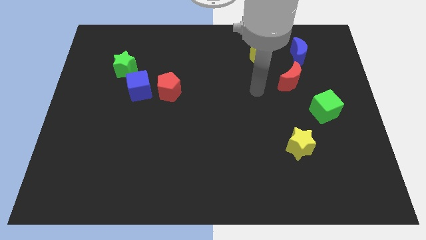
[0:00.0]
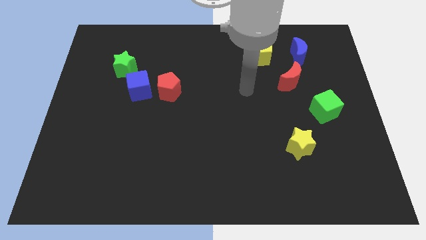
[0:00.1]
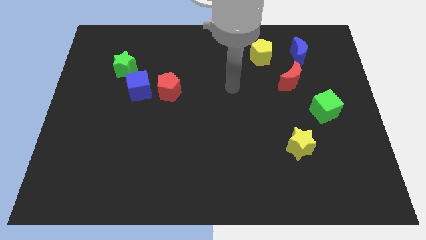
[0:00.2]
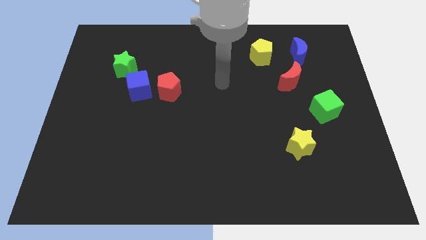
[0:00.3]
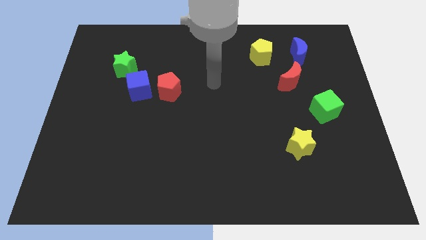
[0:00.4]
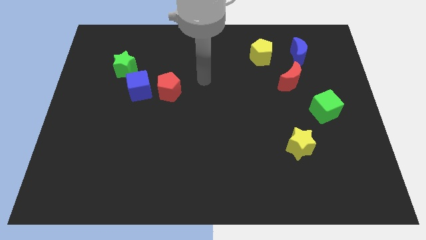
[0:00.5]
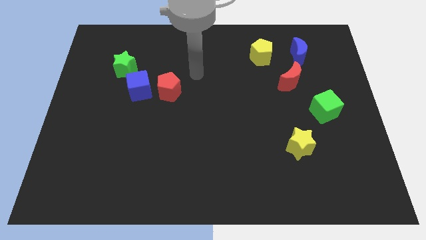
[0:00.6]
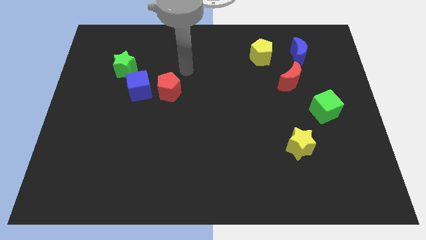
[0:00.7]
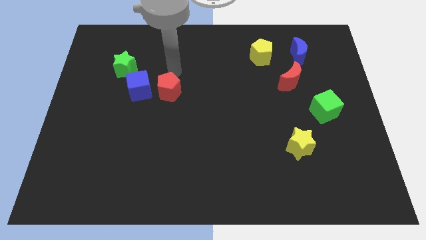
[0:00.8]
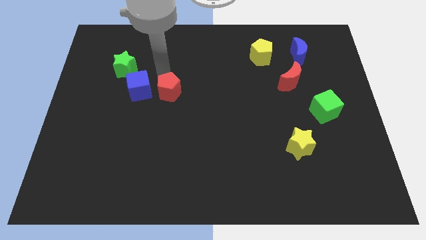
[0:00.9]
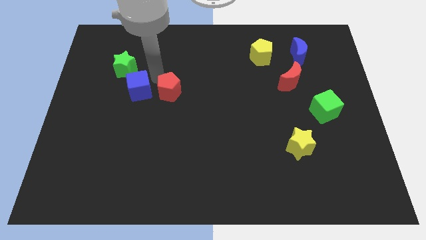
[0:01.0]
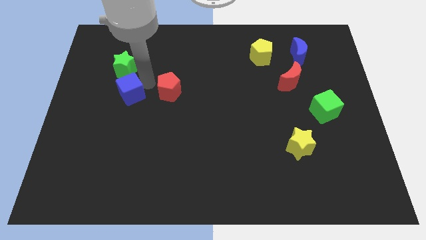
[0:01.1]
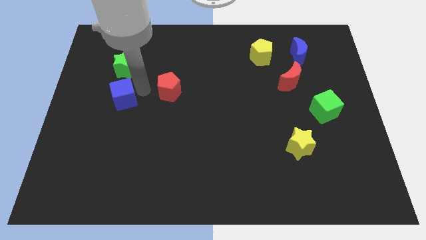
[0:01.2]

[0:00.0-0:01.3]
pull the red pentagon apart from the blue cube

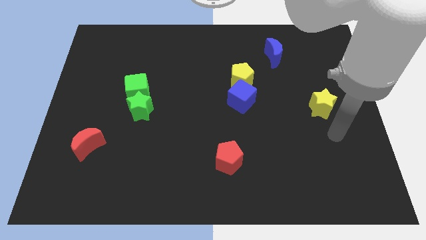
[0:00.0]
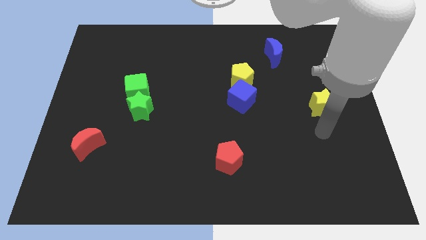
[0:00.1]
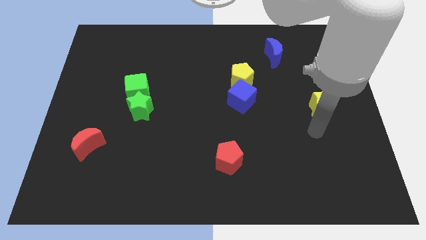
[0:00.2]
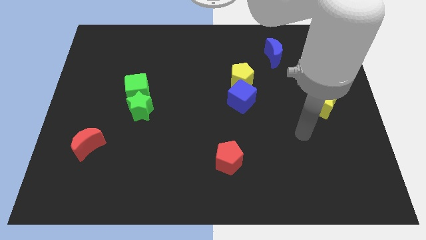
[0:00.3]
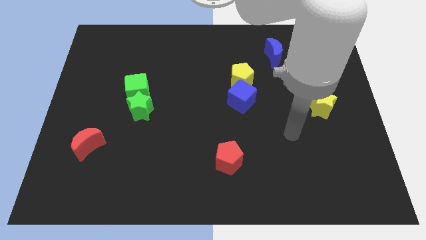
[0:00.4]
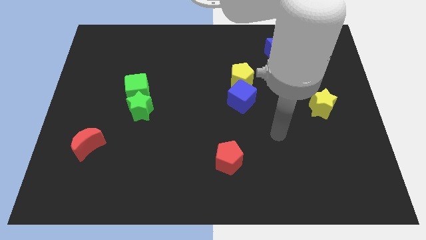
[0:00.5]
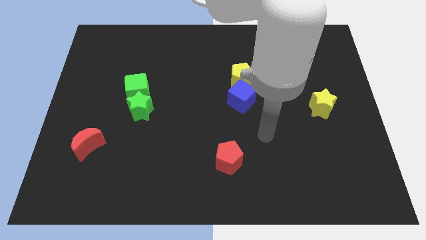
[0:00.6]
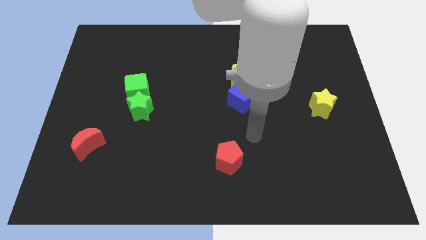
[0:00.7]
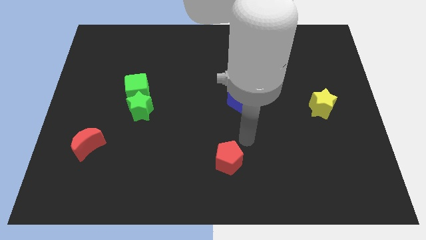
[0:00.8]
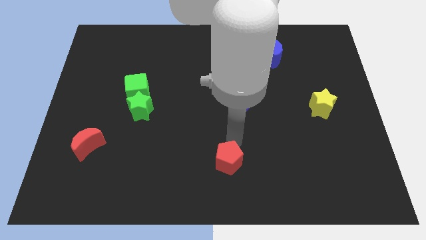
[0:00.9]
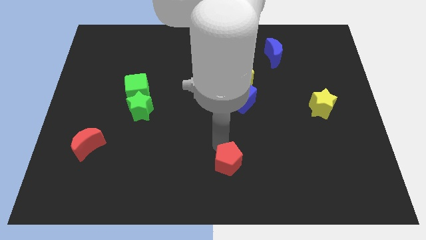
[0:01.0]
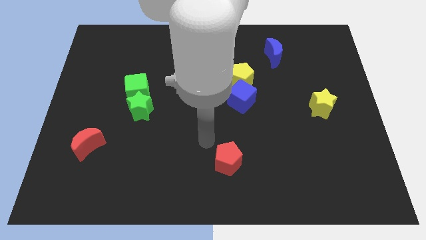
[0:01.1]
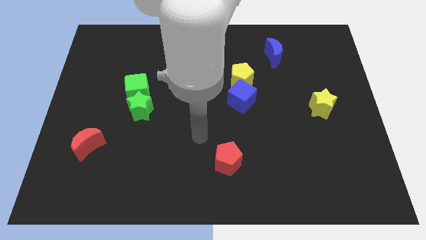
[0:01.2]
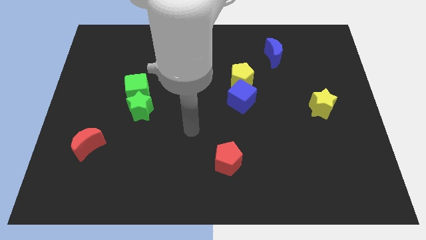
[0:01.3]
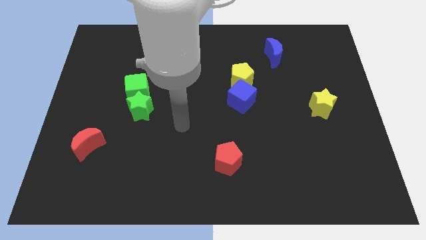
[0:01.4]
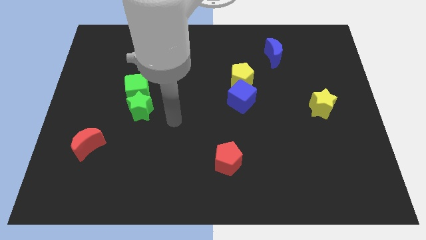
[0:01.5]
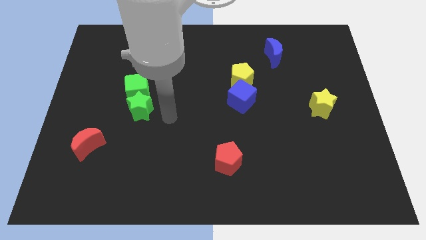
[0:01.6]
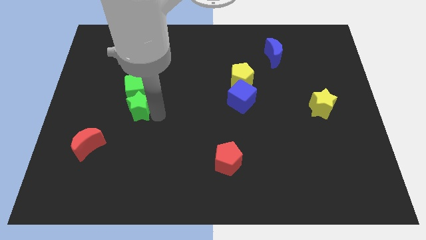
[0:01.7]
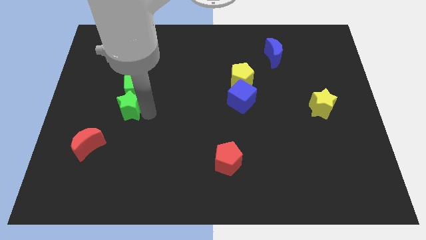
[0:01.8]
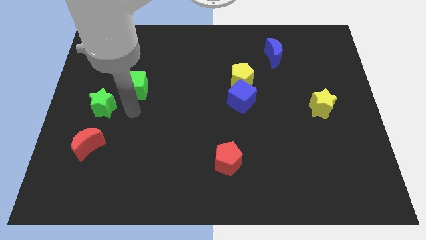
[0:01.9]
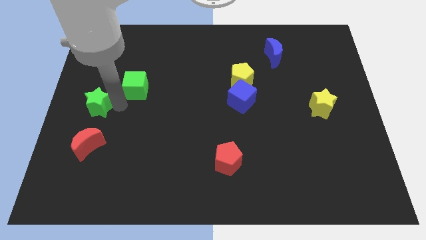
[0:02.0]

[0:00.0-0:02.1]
separate the green cube from the green star

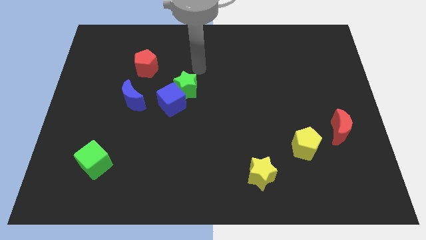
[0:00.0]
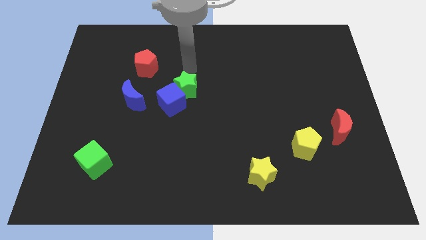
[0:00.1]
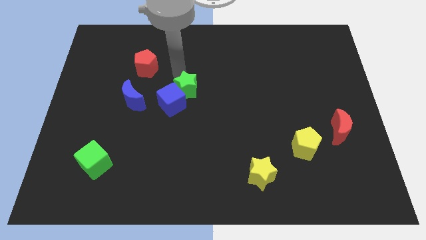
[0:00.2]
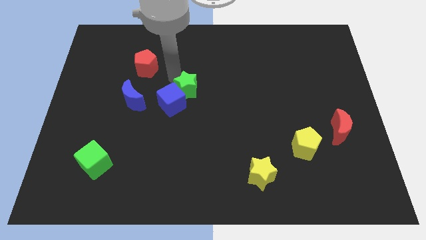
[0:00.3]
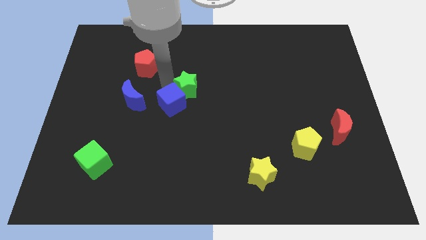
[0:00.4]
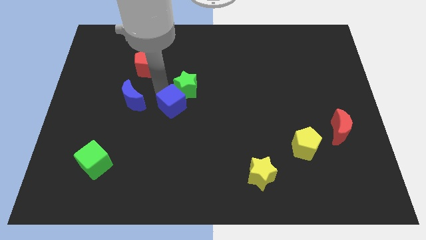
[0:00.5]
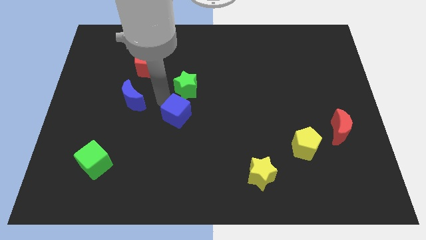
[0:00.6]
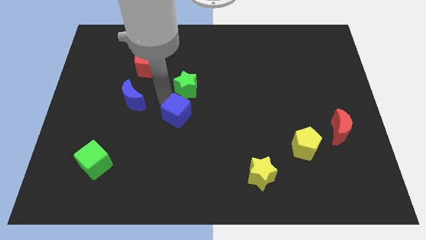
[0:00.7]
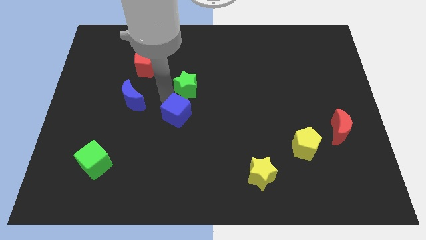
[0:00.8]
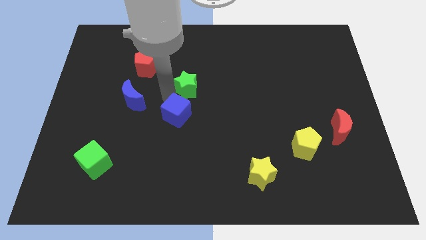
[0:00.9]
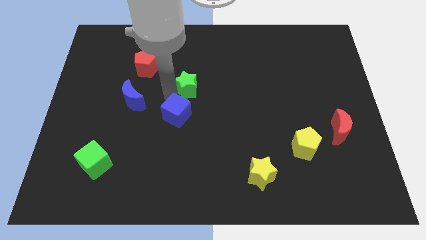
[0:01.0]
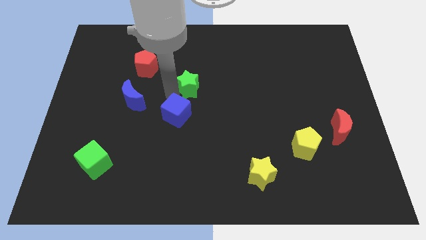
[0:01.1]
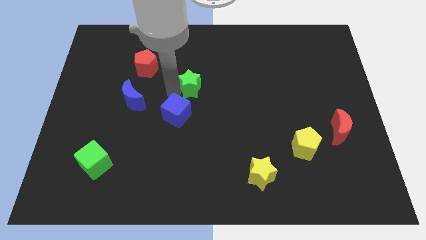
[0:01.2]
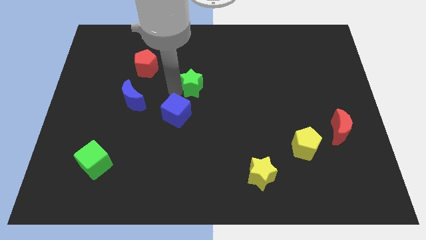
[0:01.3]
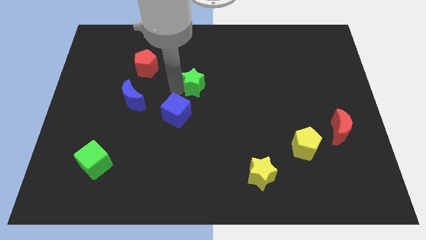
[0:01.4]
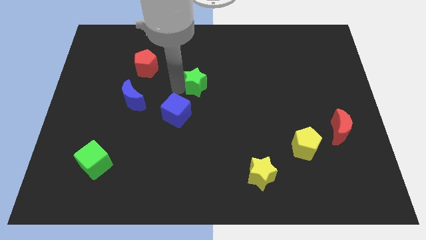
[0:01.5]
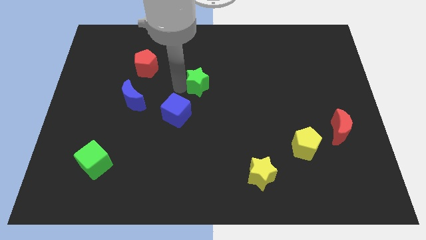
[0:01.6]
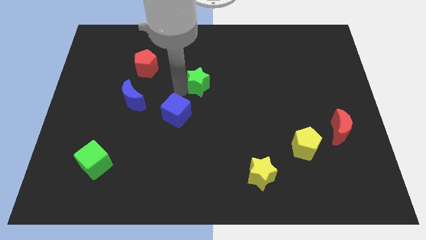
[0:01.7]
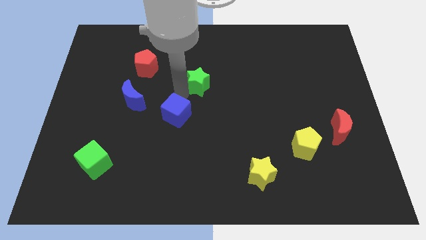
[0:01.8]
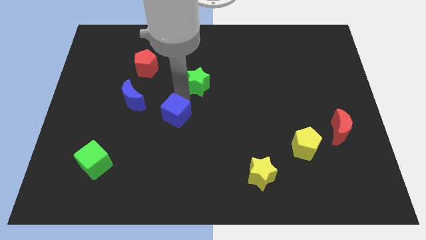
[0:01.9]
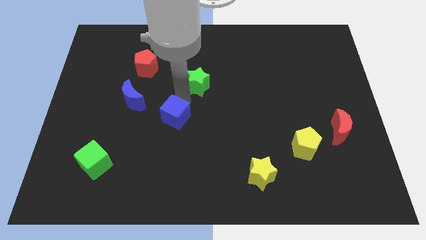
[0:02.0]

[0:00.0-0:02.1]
pull the green star apart from the blue cube

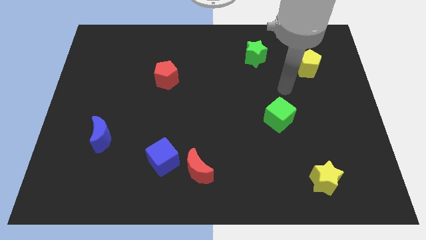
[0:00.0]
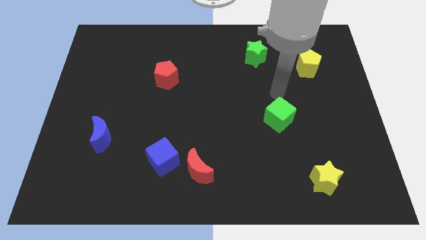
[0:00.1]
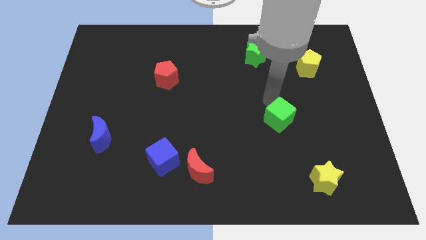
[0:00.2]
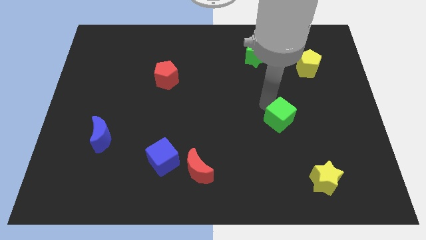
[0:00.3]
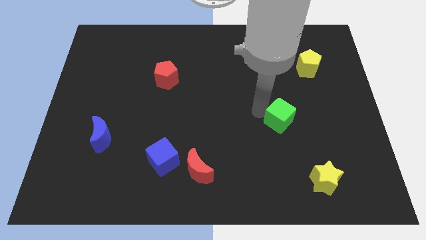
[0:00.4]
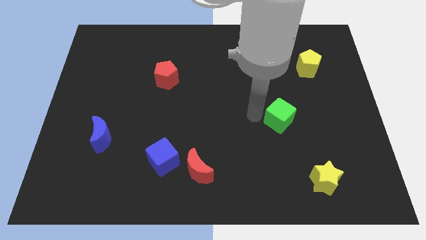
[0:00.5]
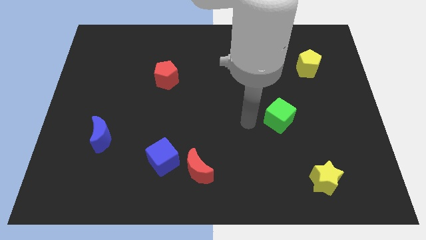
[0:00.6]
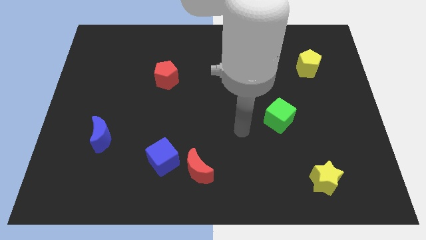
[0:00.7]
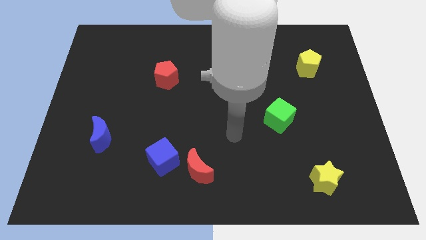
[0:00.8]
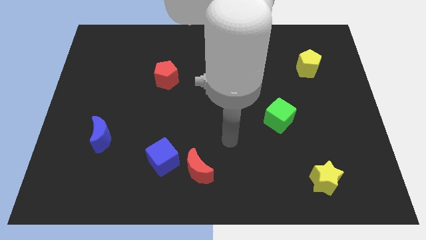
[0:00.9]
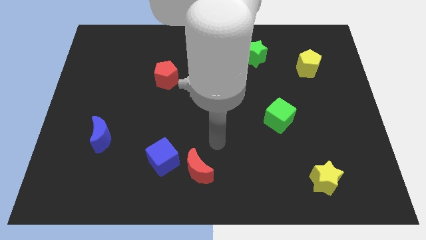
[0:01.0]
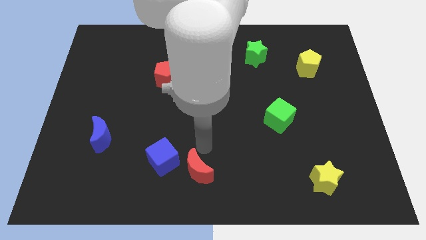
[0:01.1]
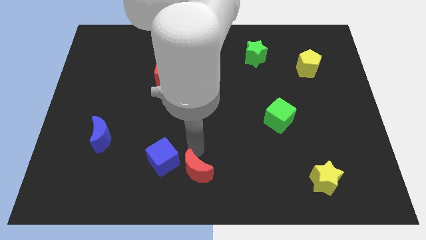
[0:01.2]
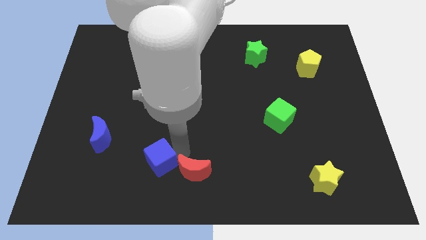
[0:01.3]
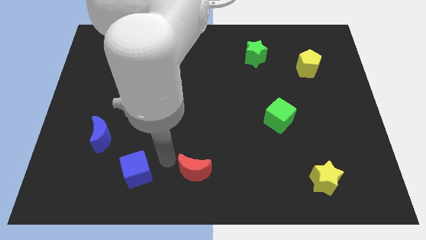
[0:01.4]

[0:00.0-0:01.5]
move the red moon away from the blue cube

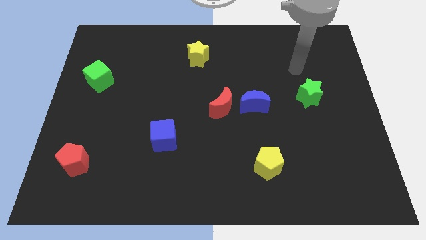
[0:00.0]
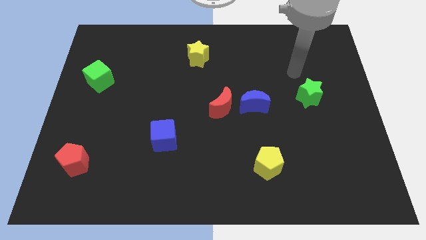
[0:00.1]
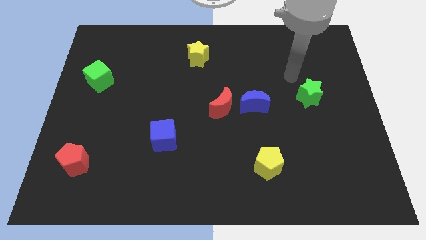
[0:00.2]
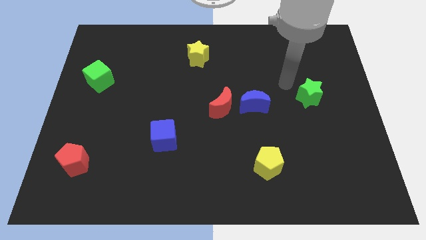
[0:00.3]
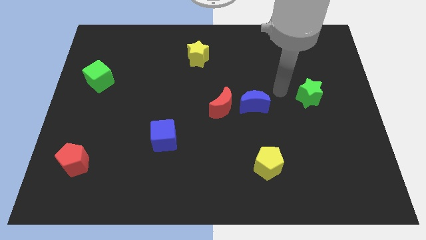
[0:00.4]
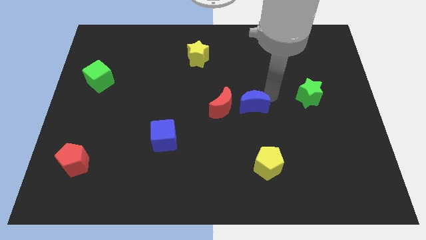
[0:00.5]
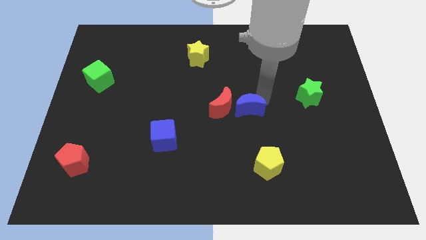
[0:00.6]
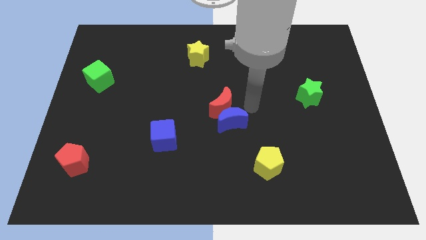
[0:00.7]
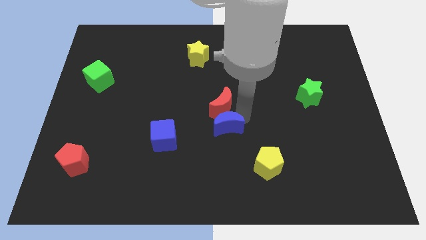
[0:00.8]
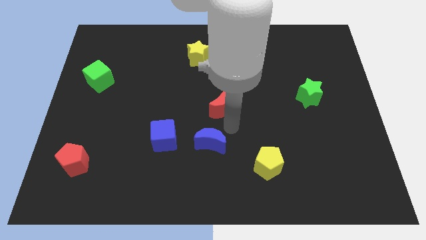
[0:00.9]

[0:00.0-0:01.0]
move the red moon away from the blue moon

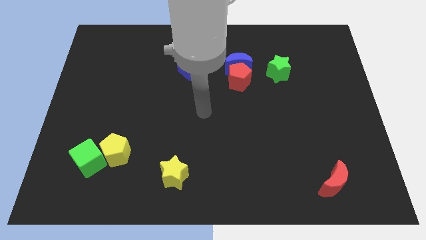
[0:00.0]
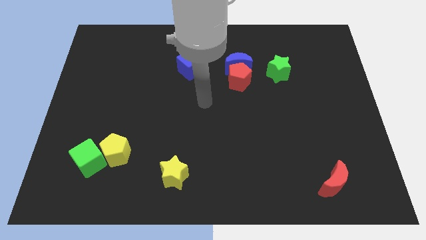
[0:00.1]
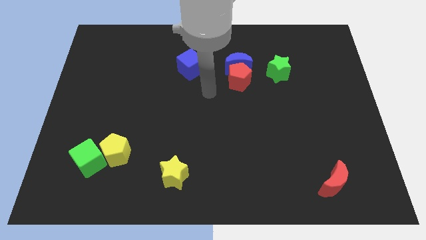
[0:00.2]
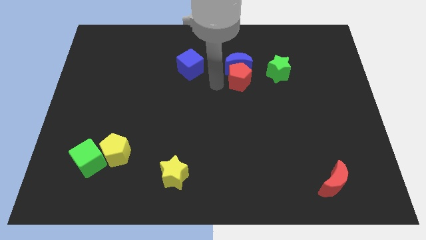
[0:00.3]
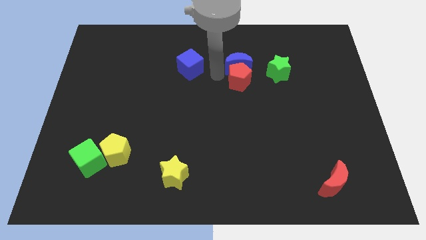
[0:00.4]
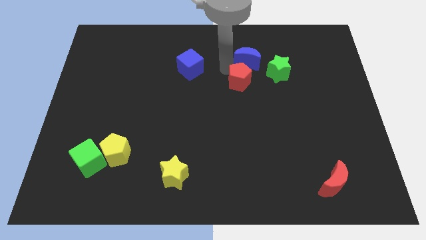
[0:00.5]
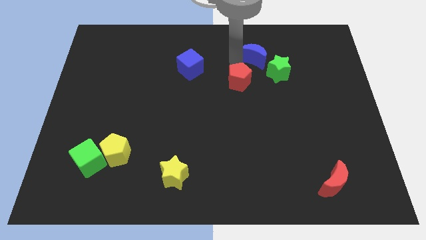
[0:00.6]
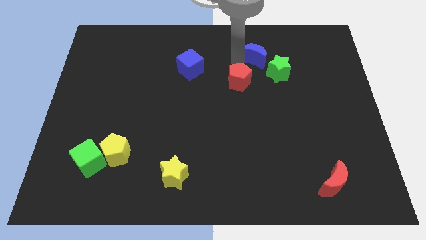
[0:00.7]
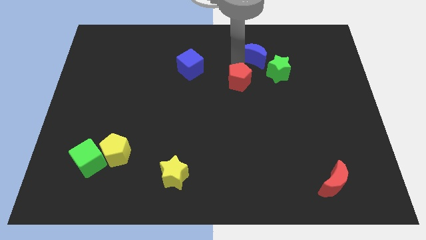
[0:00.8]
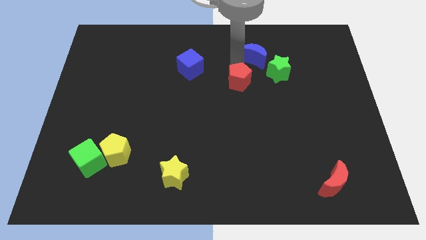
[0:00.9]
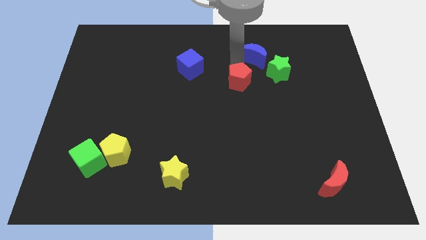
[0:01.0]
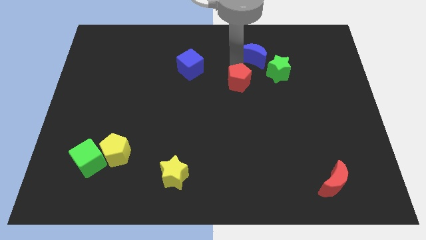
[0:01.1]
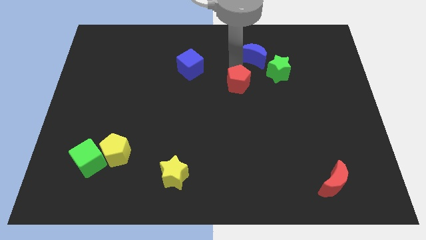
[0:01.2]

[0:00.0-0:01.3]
move the red pentagon away from the blue moon
